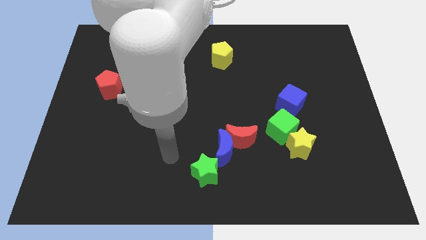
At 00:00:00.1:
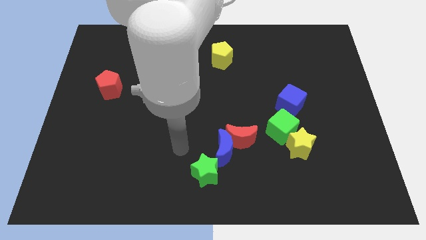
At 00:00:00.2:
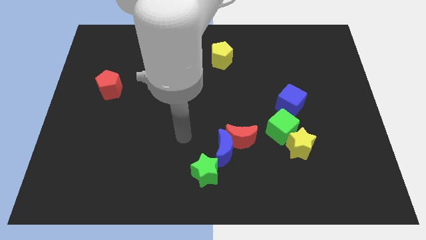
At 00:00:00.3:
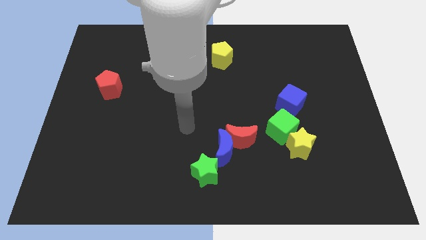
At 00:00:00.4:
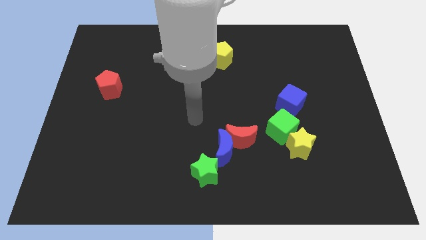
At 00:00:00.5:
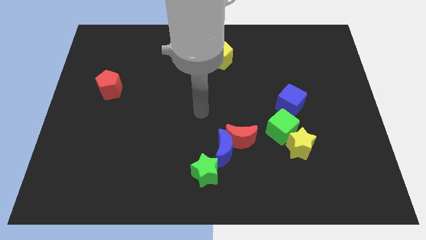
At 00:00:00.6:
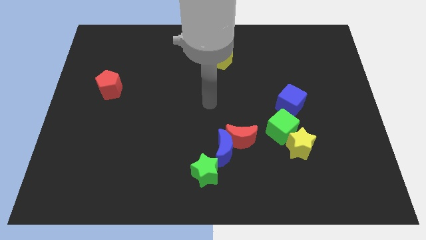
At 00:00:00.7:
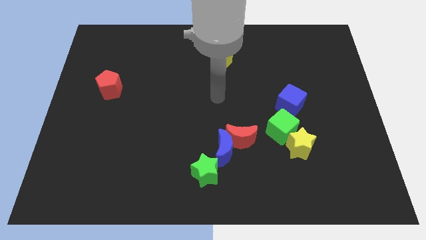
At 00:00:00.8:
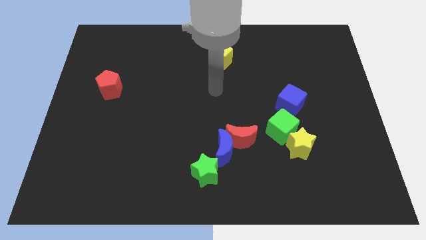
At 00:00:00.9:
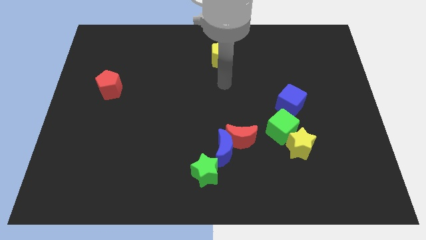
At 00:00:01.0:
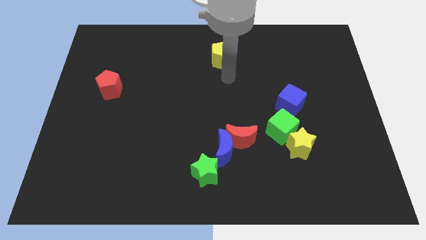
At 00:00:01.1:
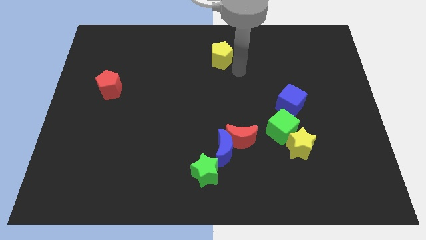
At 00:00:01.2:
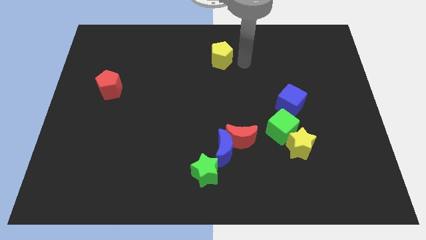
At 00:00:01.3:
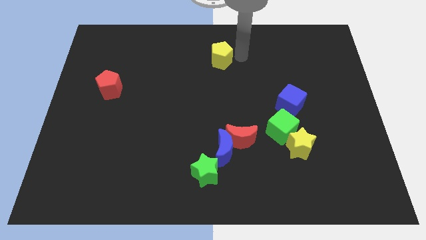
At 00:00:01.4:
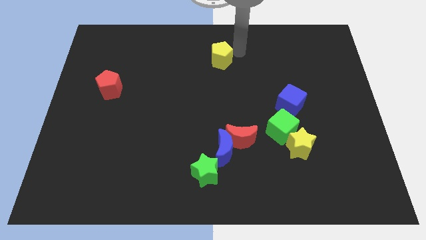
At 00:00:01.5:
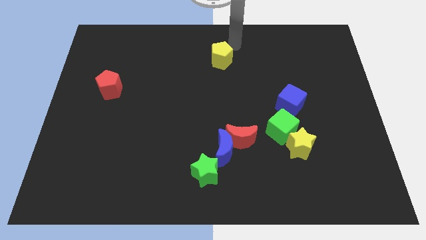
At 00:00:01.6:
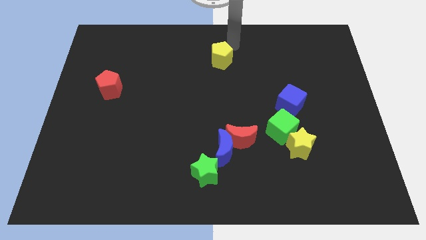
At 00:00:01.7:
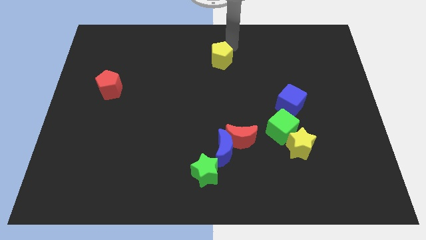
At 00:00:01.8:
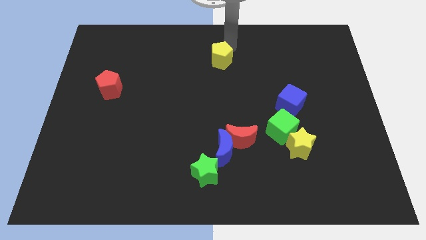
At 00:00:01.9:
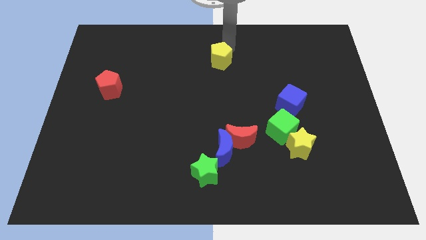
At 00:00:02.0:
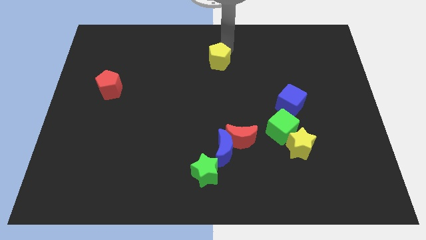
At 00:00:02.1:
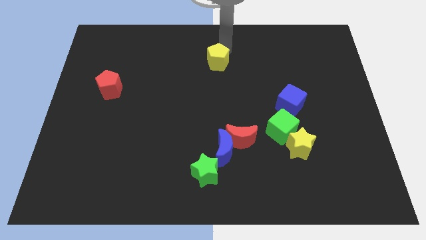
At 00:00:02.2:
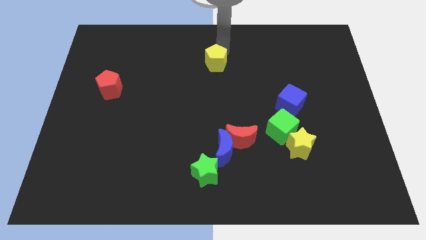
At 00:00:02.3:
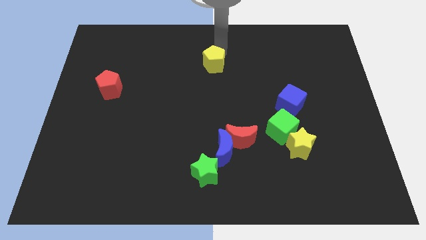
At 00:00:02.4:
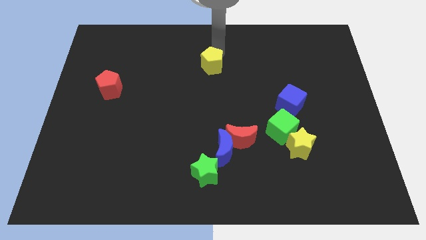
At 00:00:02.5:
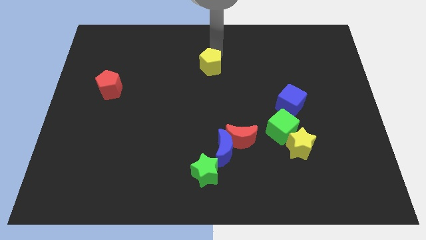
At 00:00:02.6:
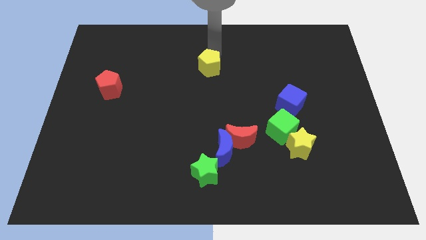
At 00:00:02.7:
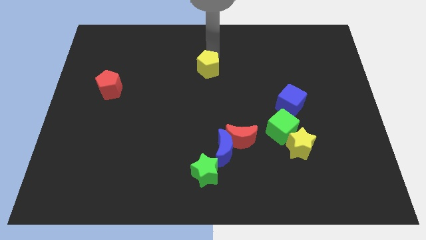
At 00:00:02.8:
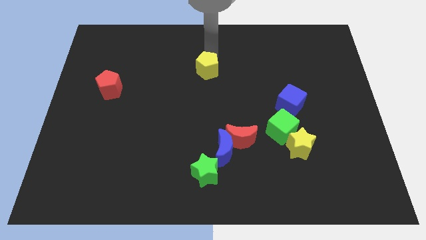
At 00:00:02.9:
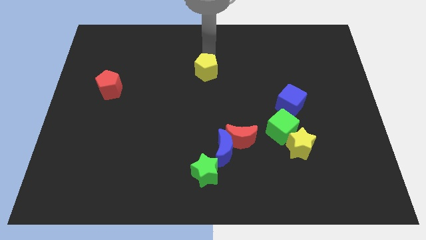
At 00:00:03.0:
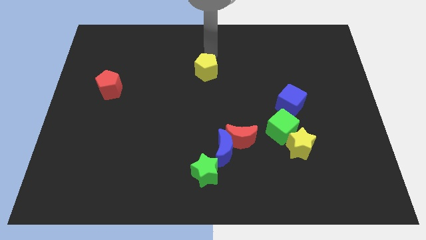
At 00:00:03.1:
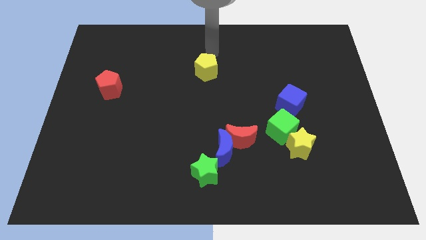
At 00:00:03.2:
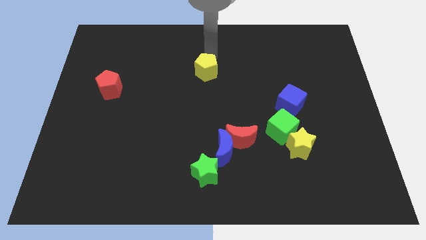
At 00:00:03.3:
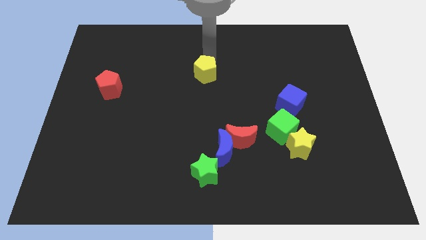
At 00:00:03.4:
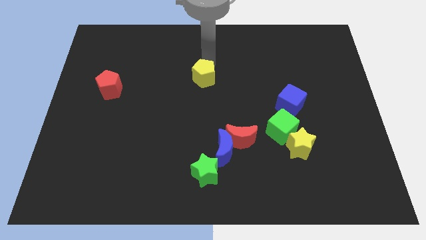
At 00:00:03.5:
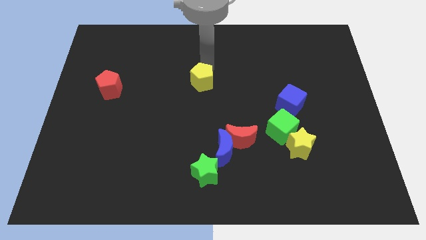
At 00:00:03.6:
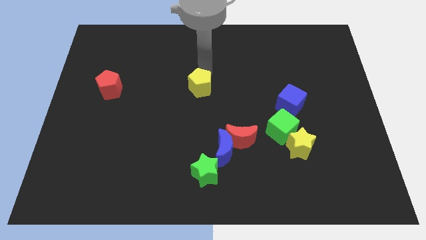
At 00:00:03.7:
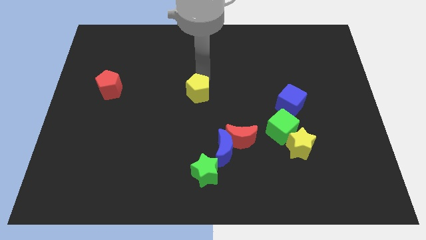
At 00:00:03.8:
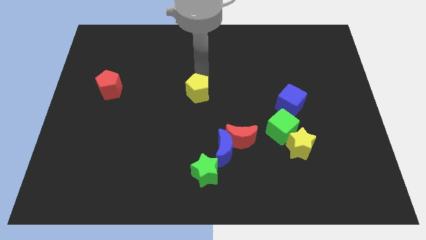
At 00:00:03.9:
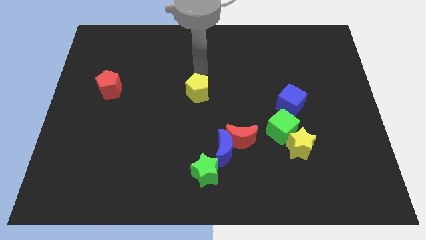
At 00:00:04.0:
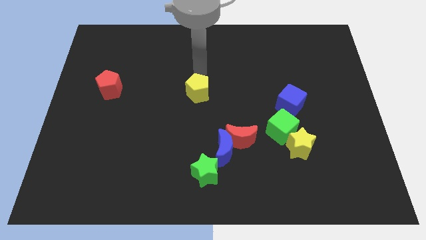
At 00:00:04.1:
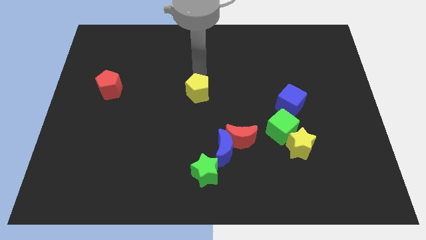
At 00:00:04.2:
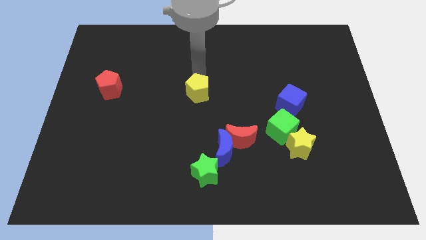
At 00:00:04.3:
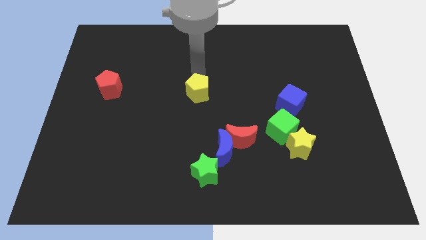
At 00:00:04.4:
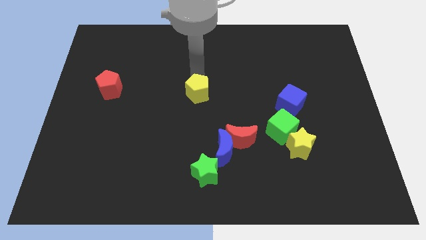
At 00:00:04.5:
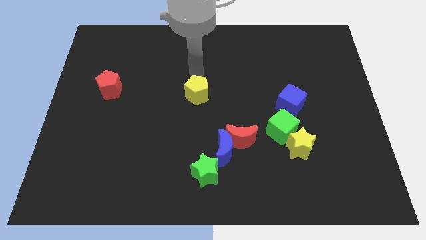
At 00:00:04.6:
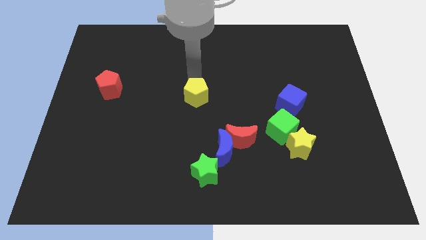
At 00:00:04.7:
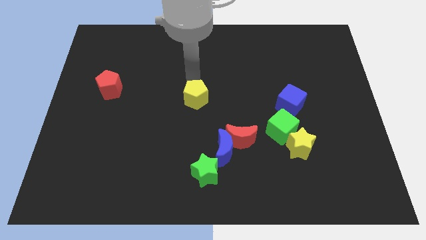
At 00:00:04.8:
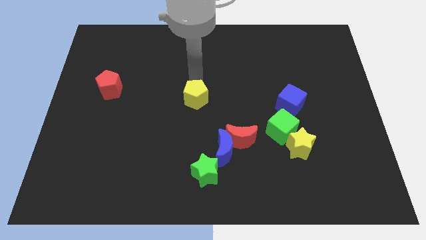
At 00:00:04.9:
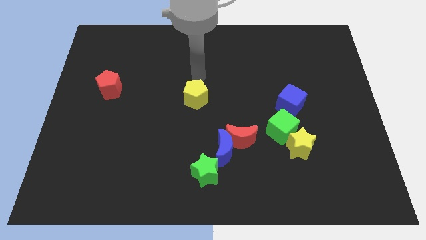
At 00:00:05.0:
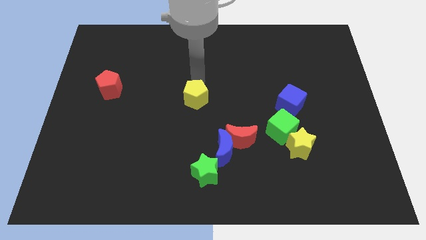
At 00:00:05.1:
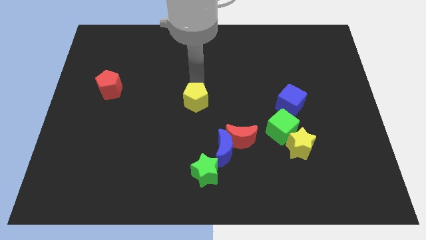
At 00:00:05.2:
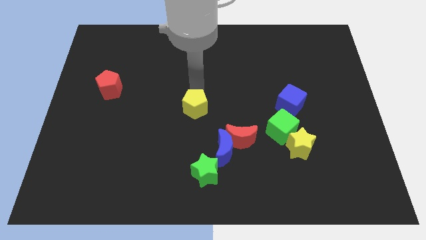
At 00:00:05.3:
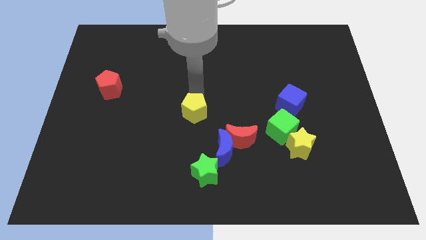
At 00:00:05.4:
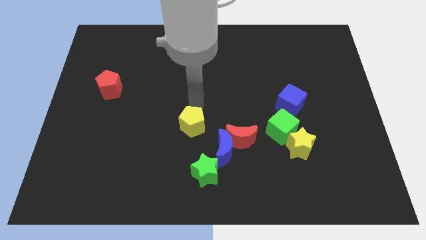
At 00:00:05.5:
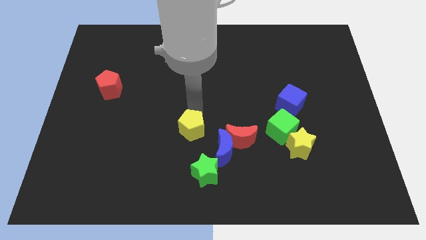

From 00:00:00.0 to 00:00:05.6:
slide the yellow pentagon downwards

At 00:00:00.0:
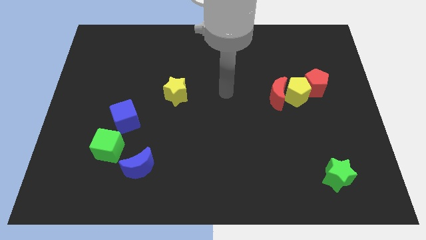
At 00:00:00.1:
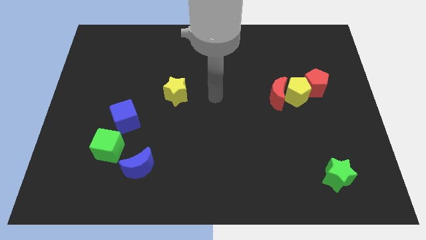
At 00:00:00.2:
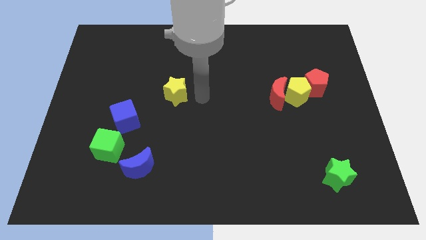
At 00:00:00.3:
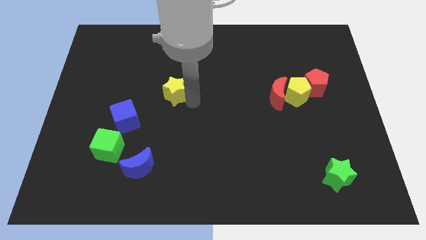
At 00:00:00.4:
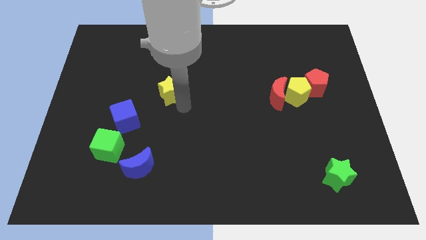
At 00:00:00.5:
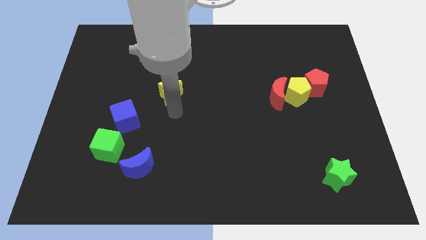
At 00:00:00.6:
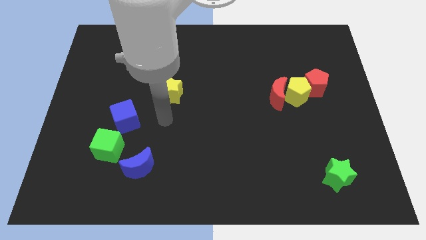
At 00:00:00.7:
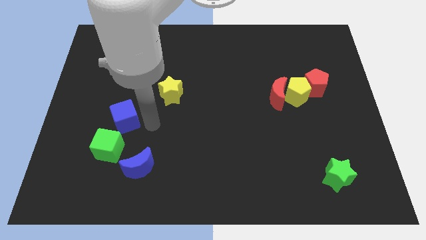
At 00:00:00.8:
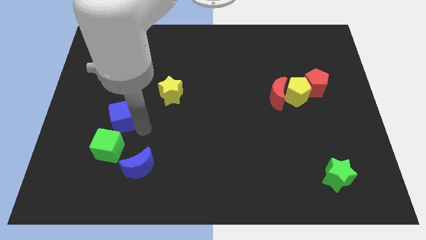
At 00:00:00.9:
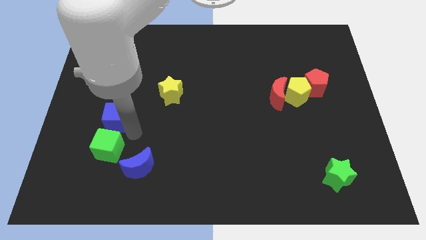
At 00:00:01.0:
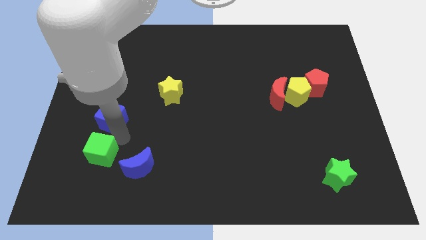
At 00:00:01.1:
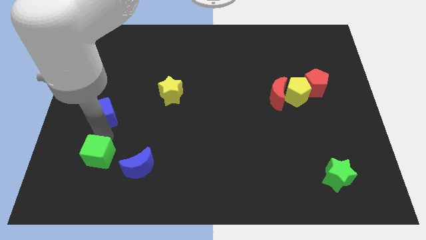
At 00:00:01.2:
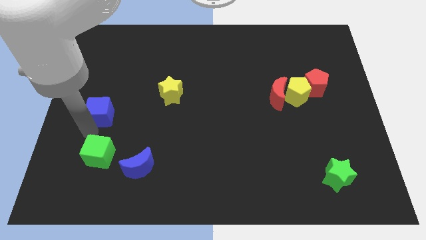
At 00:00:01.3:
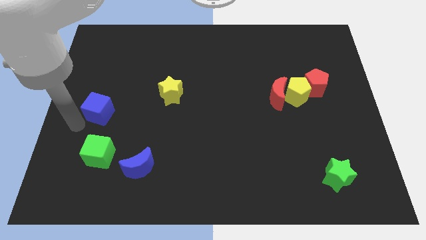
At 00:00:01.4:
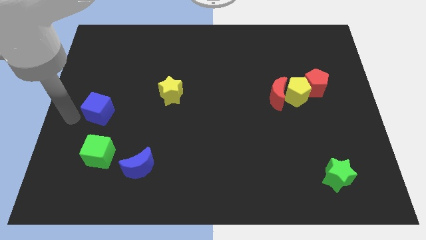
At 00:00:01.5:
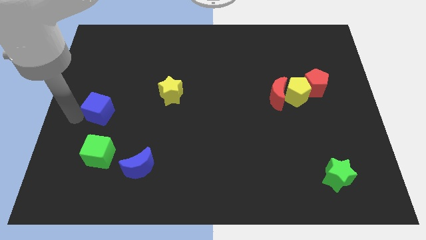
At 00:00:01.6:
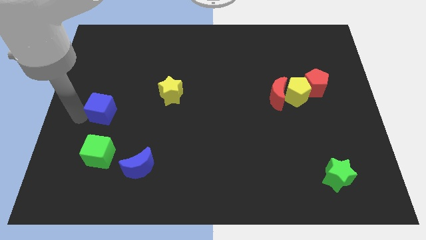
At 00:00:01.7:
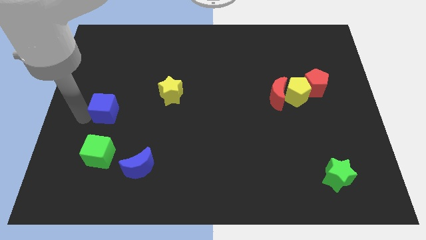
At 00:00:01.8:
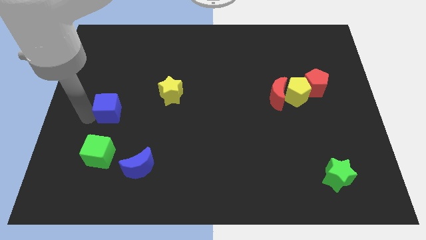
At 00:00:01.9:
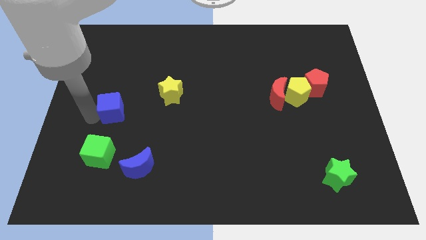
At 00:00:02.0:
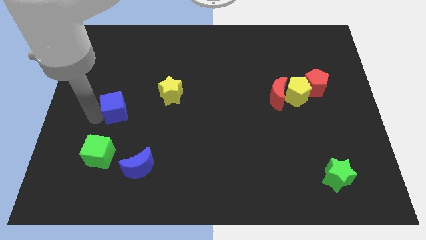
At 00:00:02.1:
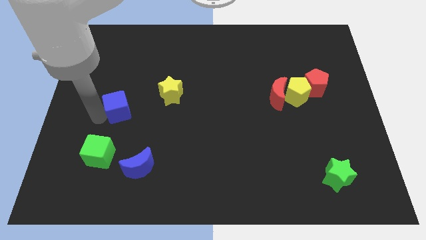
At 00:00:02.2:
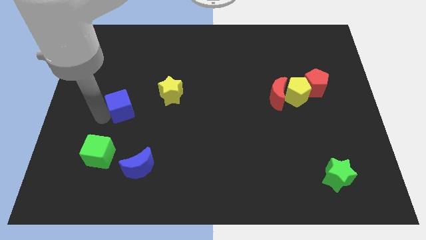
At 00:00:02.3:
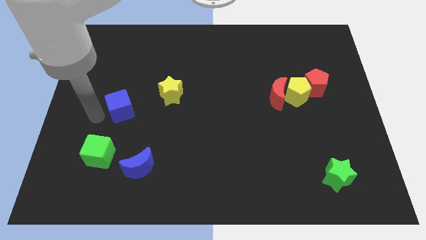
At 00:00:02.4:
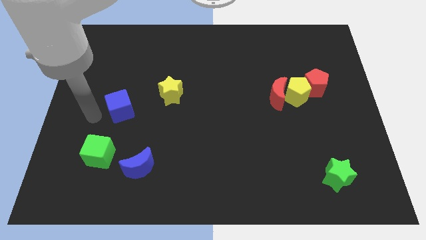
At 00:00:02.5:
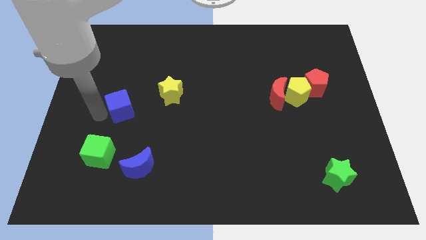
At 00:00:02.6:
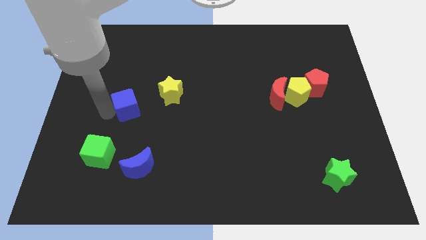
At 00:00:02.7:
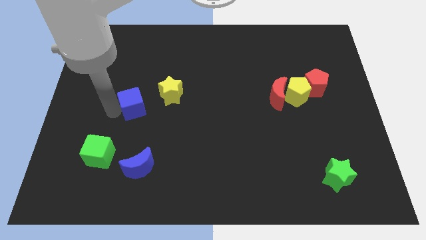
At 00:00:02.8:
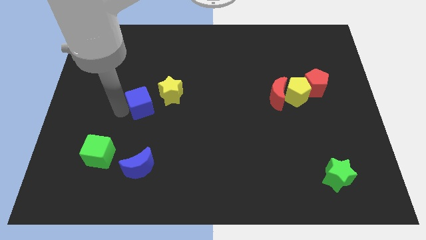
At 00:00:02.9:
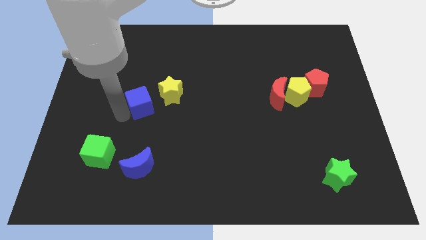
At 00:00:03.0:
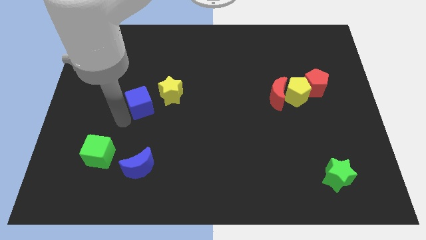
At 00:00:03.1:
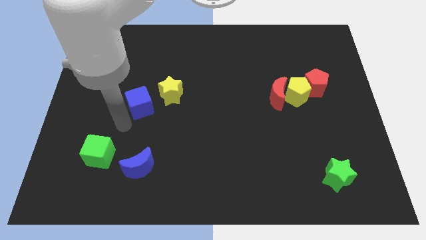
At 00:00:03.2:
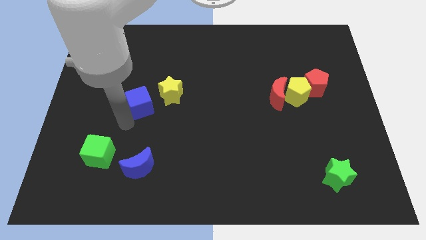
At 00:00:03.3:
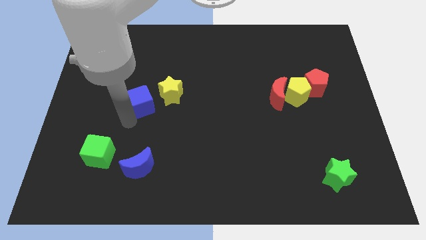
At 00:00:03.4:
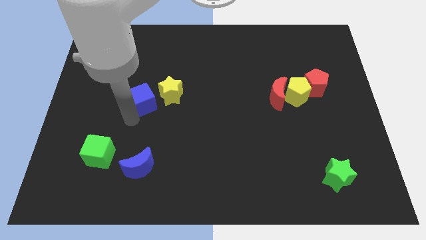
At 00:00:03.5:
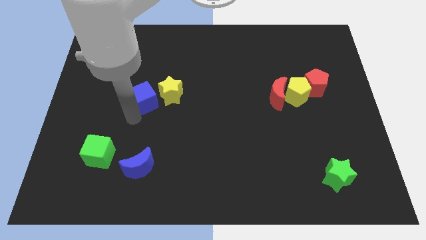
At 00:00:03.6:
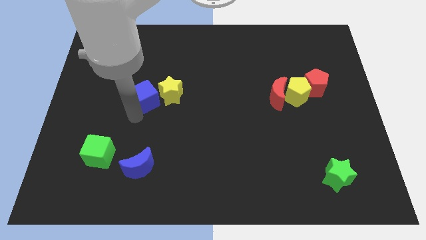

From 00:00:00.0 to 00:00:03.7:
move the blue cube upwards and then right a little
